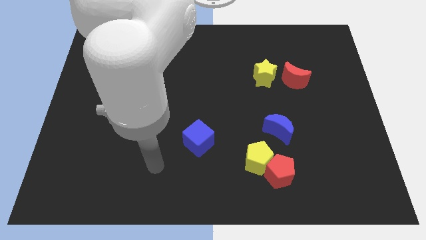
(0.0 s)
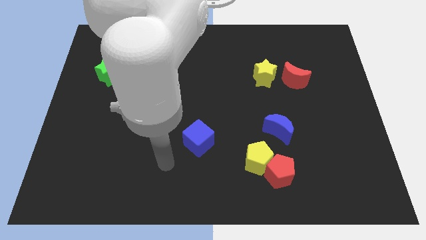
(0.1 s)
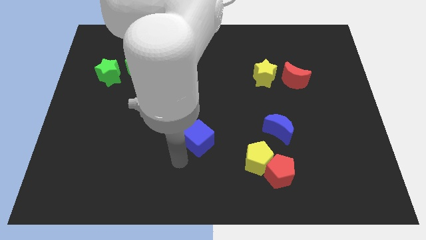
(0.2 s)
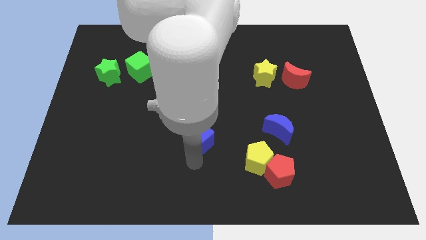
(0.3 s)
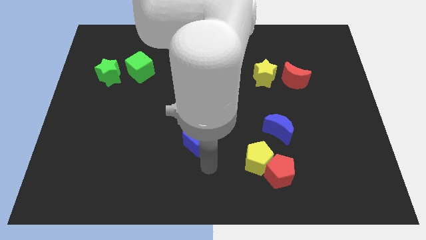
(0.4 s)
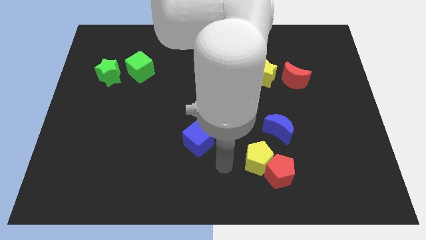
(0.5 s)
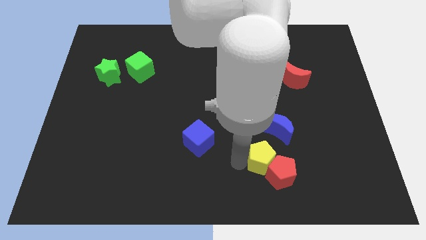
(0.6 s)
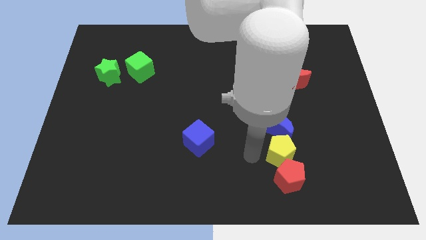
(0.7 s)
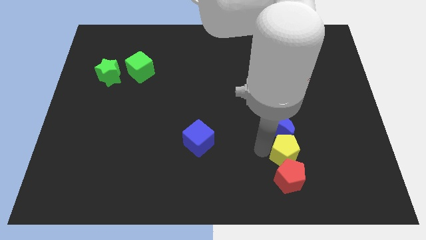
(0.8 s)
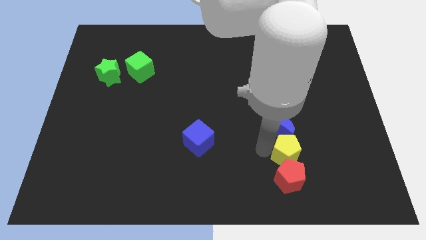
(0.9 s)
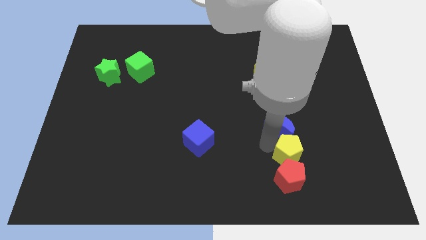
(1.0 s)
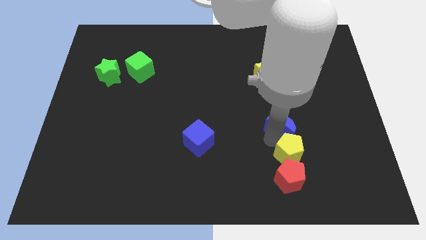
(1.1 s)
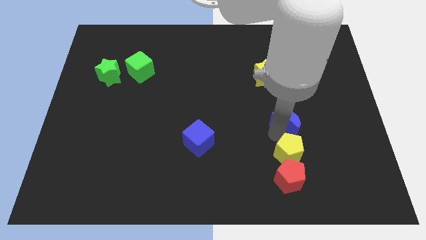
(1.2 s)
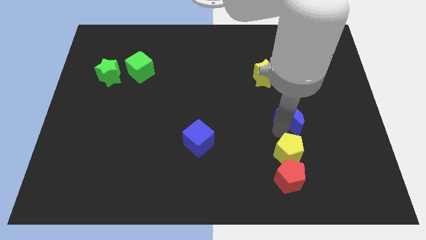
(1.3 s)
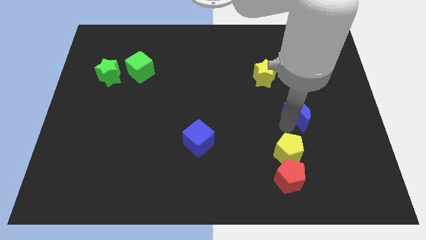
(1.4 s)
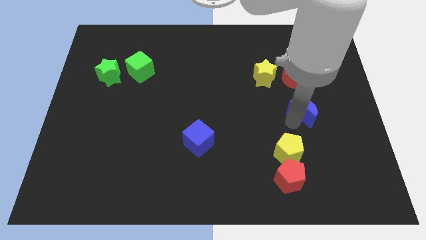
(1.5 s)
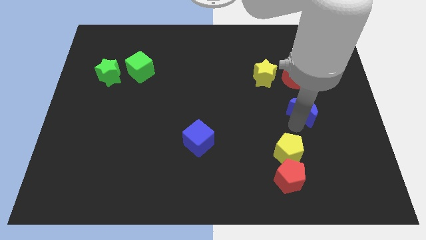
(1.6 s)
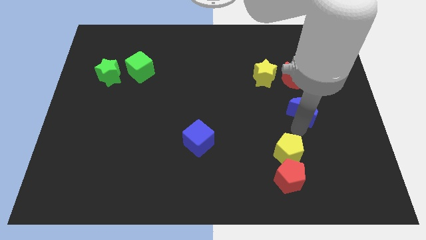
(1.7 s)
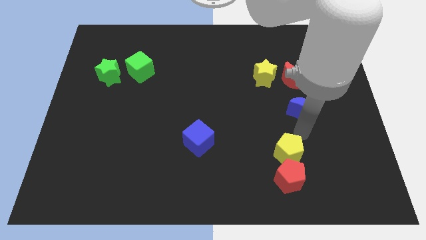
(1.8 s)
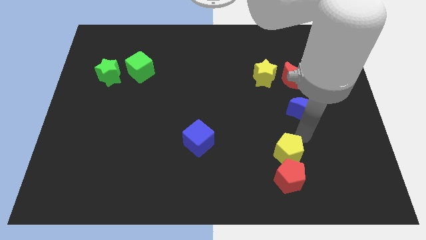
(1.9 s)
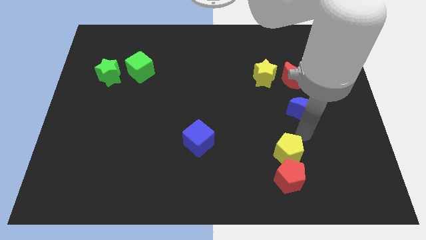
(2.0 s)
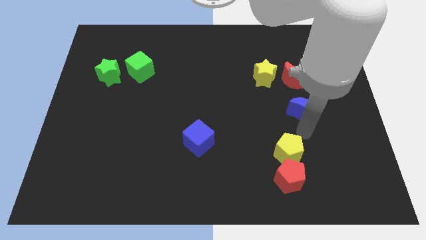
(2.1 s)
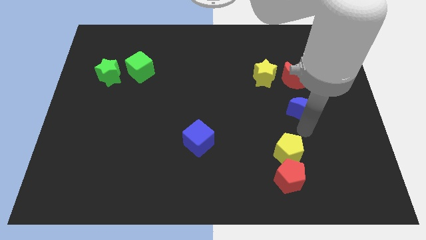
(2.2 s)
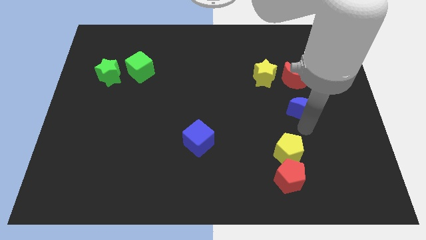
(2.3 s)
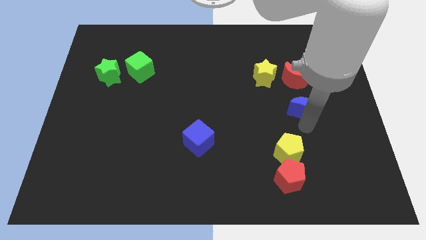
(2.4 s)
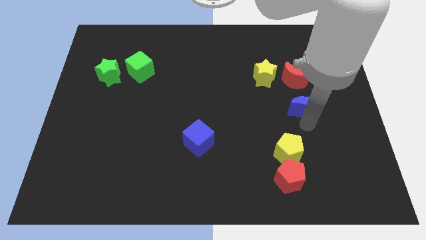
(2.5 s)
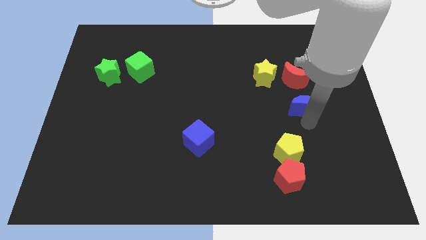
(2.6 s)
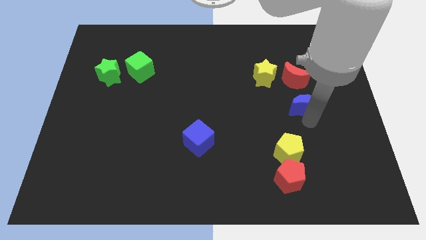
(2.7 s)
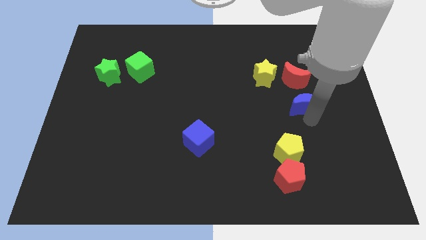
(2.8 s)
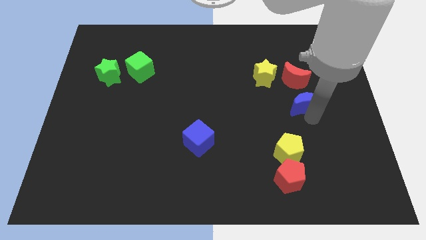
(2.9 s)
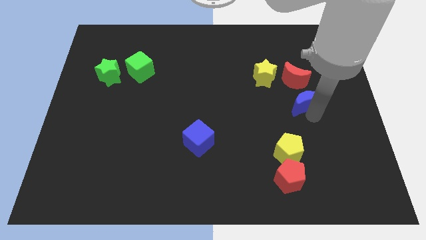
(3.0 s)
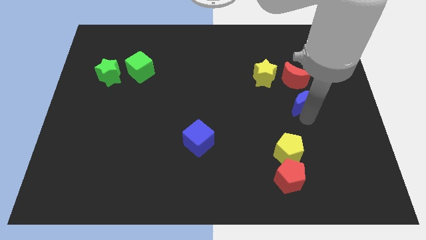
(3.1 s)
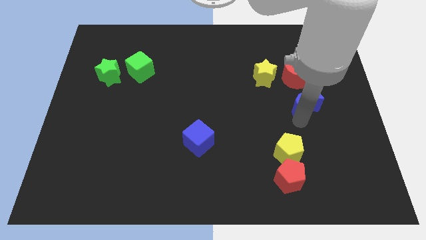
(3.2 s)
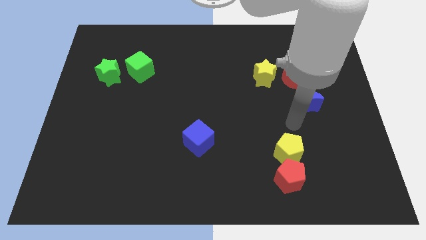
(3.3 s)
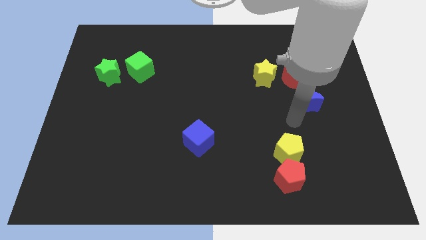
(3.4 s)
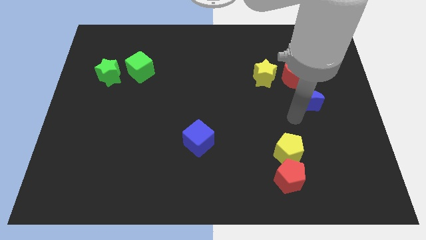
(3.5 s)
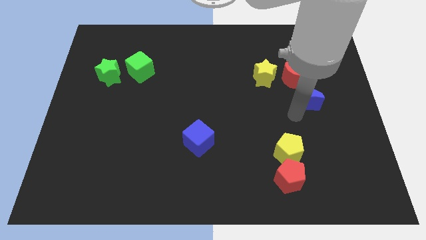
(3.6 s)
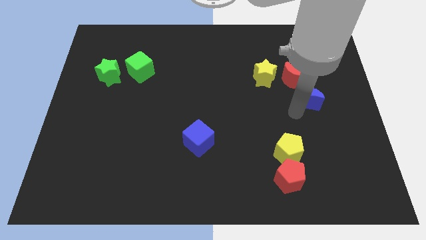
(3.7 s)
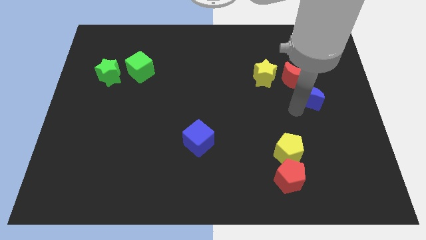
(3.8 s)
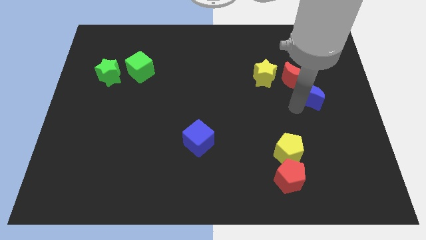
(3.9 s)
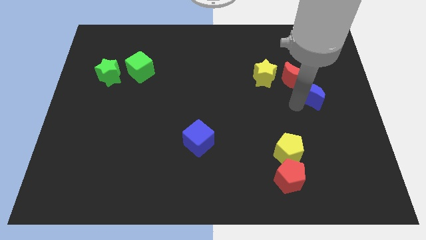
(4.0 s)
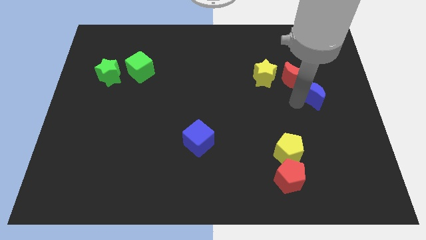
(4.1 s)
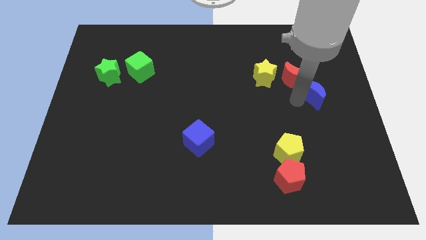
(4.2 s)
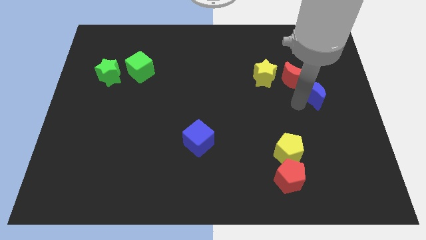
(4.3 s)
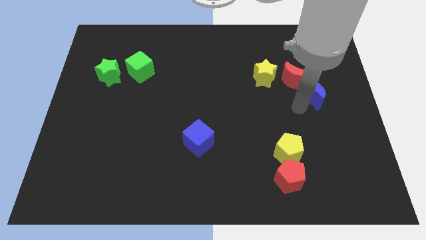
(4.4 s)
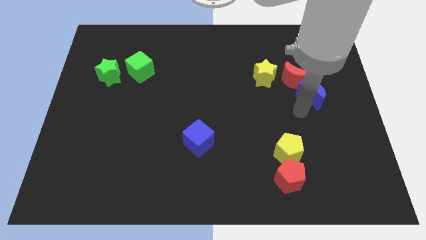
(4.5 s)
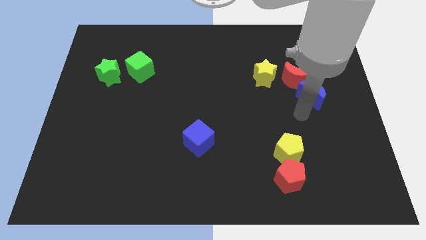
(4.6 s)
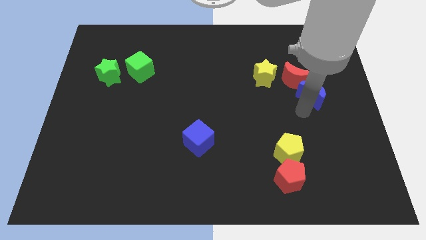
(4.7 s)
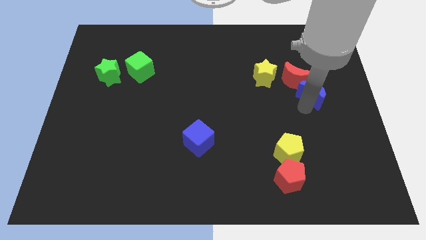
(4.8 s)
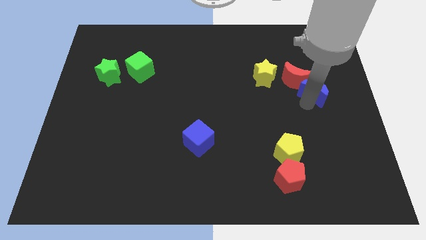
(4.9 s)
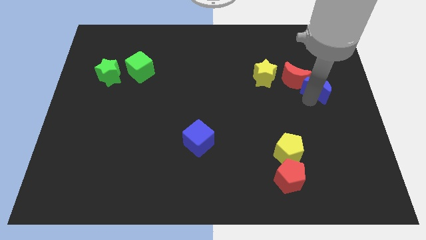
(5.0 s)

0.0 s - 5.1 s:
slide the blue moon just right of the yellow star

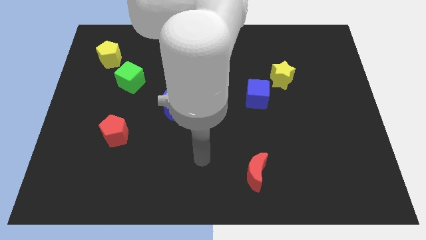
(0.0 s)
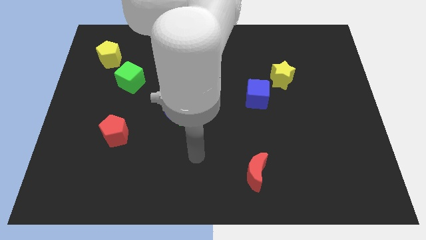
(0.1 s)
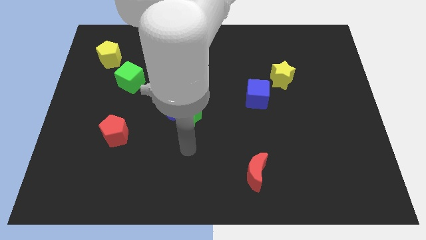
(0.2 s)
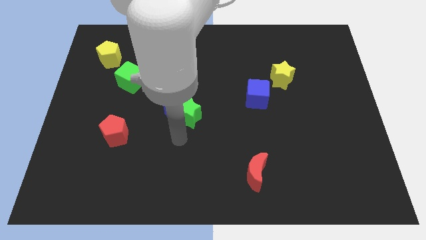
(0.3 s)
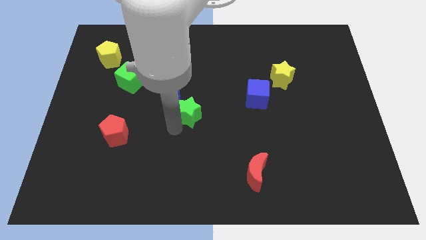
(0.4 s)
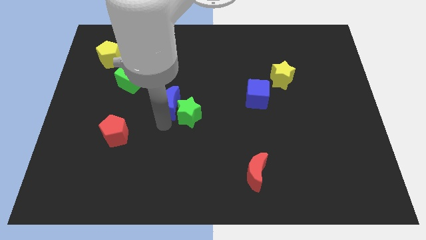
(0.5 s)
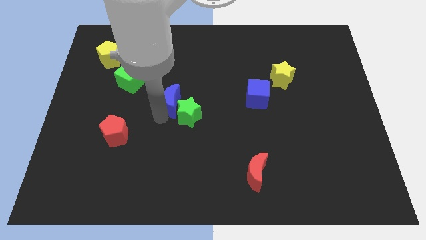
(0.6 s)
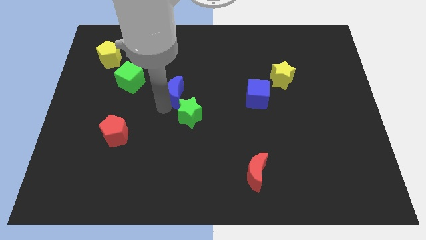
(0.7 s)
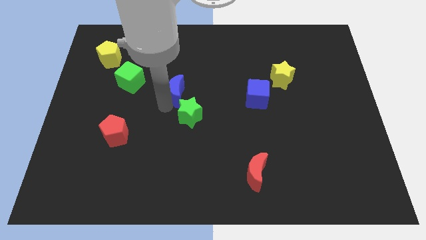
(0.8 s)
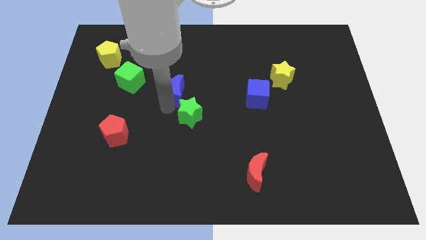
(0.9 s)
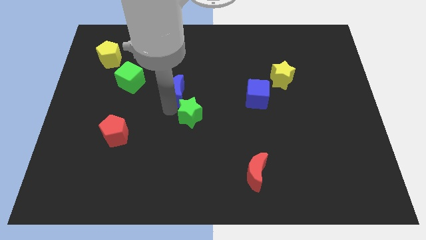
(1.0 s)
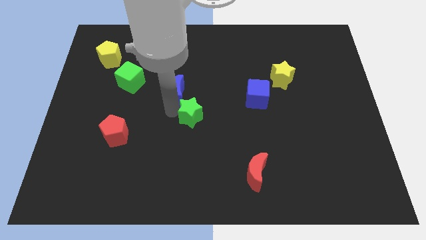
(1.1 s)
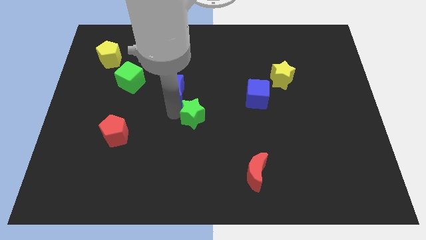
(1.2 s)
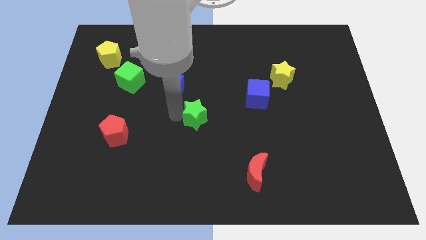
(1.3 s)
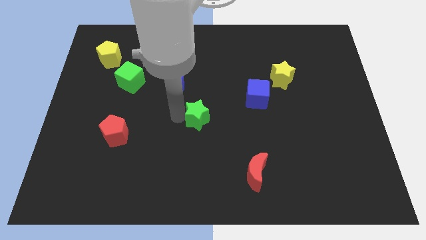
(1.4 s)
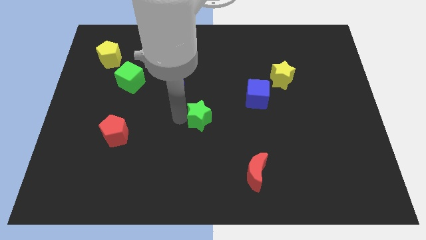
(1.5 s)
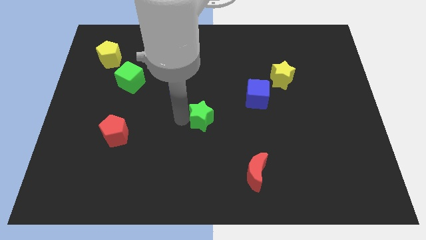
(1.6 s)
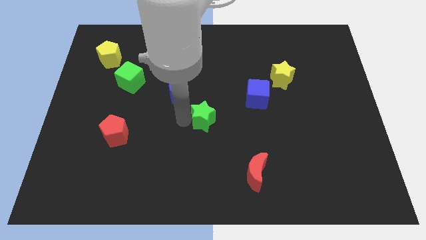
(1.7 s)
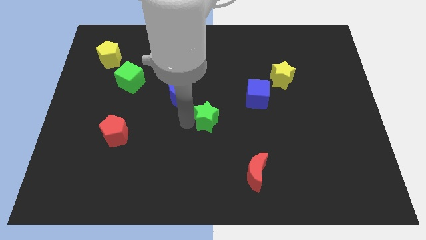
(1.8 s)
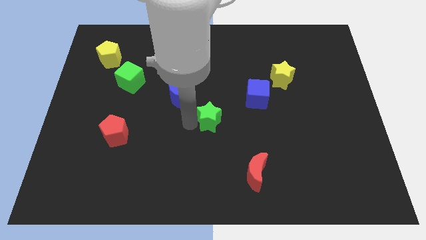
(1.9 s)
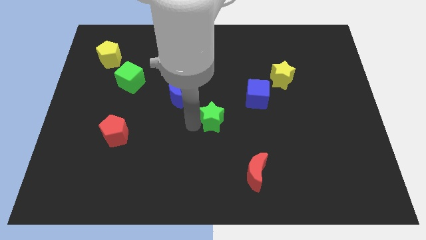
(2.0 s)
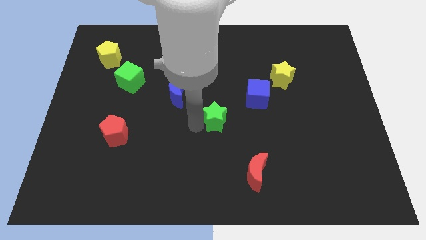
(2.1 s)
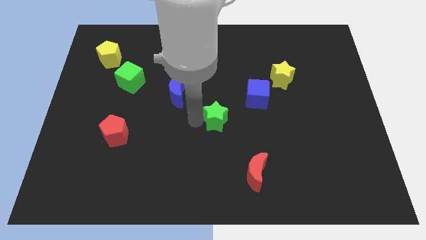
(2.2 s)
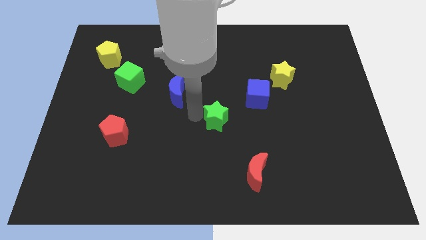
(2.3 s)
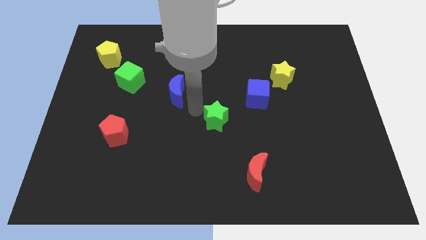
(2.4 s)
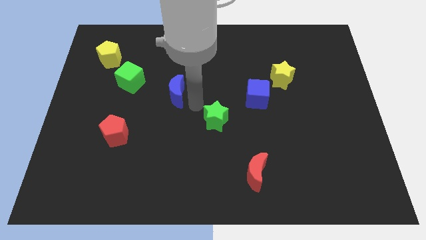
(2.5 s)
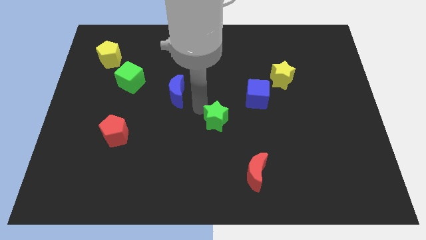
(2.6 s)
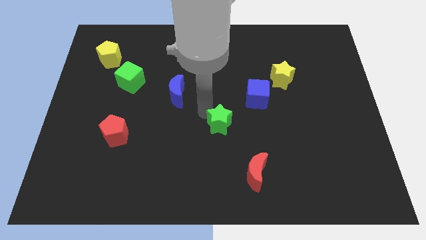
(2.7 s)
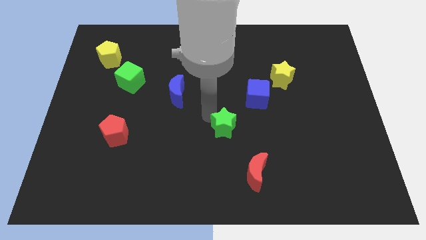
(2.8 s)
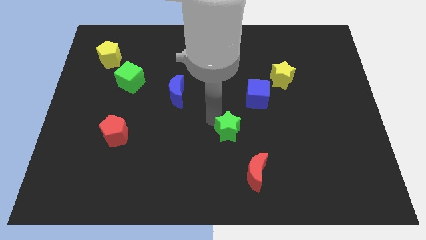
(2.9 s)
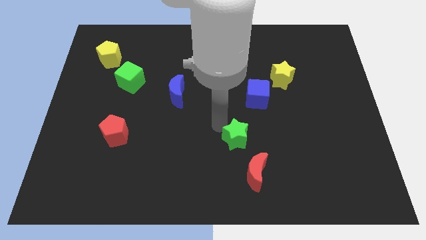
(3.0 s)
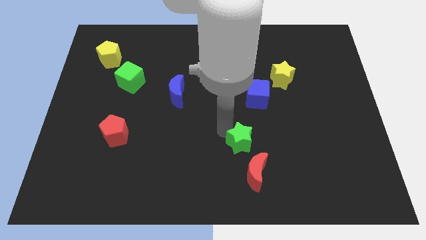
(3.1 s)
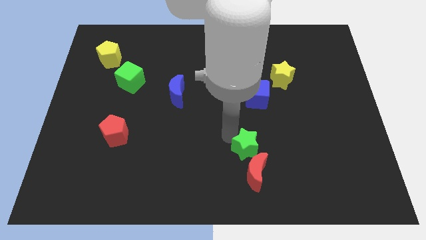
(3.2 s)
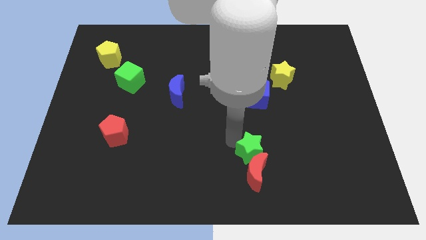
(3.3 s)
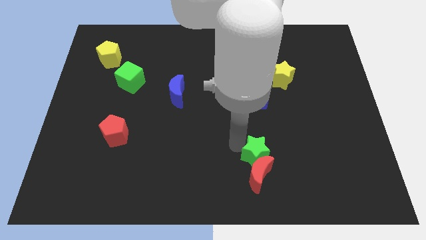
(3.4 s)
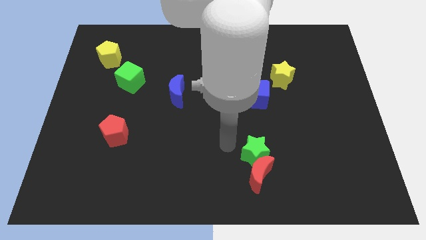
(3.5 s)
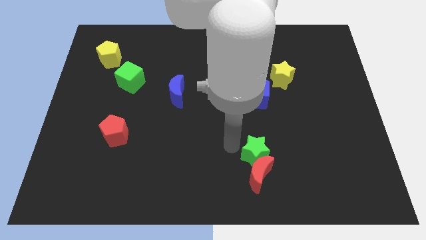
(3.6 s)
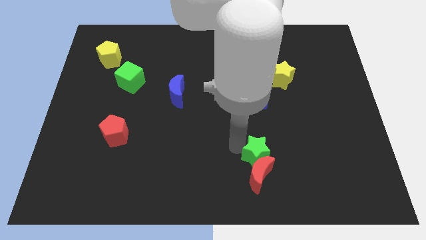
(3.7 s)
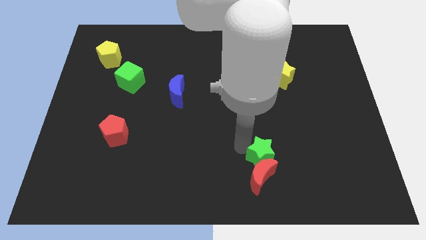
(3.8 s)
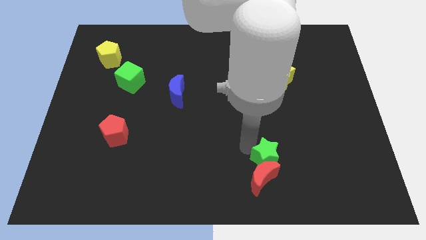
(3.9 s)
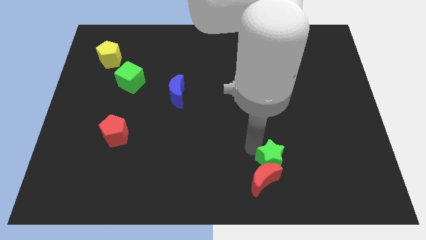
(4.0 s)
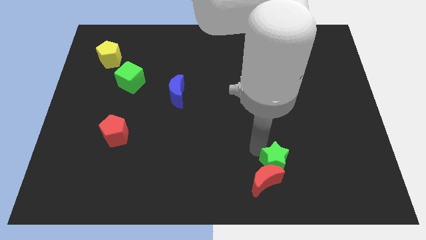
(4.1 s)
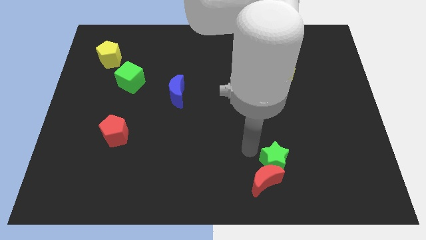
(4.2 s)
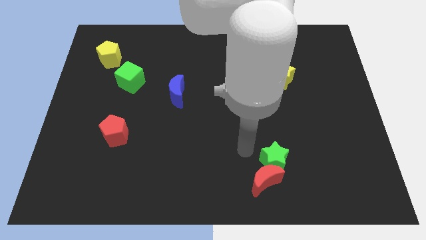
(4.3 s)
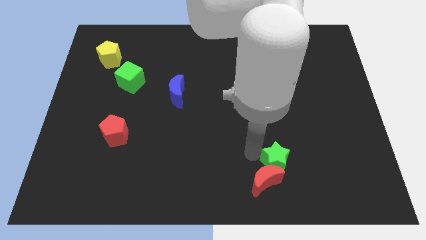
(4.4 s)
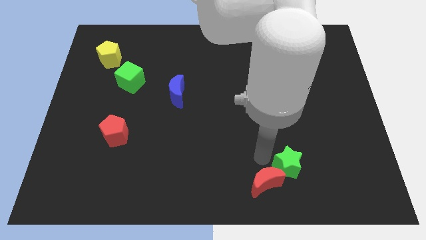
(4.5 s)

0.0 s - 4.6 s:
slide the green star to the right of the red moon
